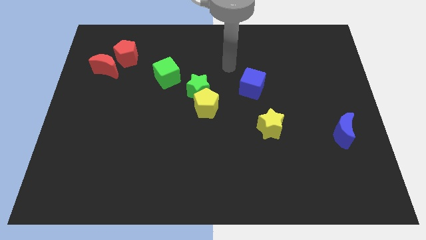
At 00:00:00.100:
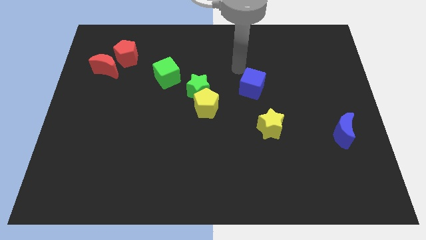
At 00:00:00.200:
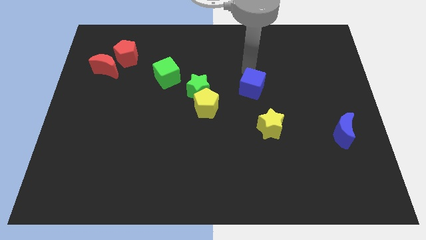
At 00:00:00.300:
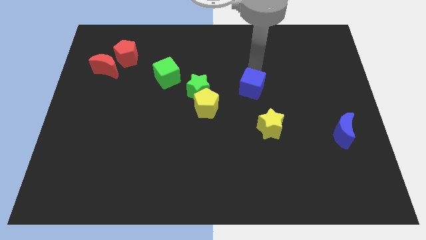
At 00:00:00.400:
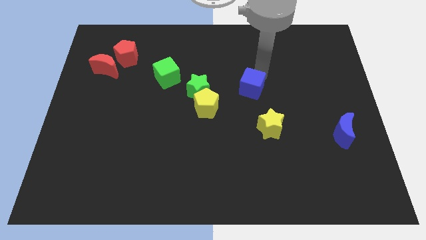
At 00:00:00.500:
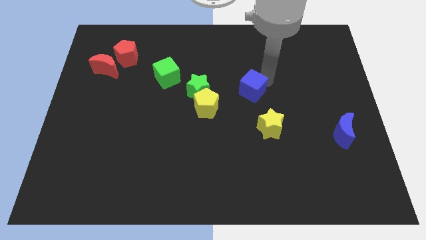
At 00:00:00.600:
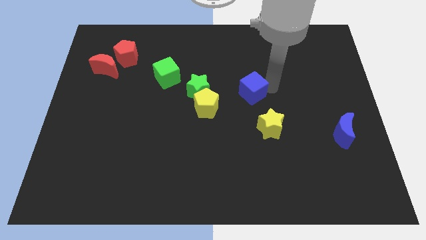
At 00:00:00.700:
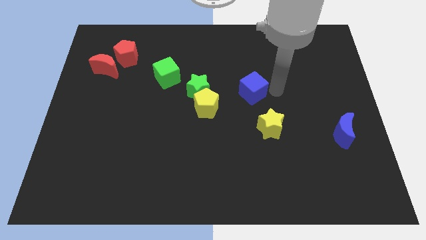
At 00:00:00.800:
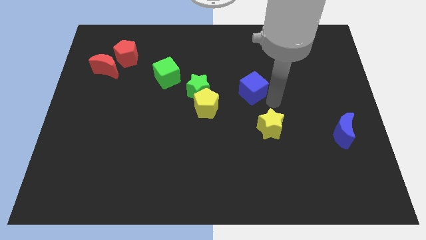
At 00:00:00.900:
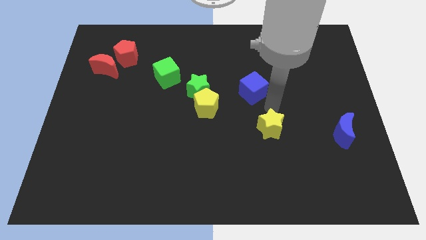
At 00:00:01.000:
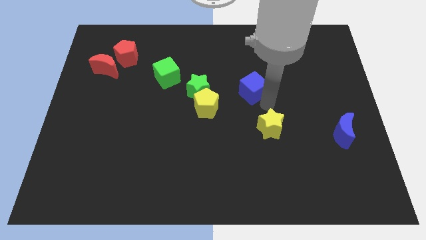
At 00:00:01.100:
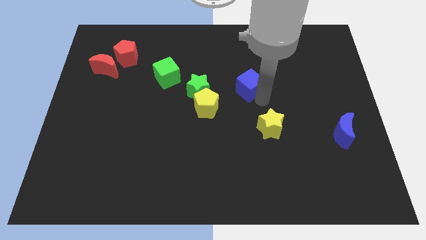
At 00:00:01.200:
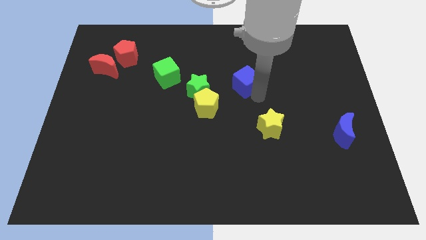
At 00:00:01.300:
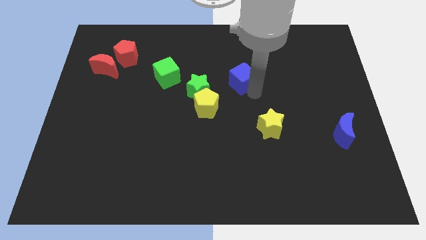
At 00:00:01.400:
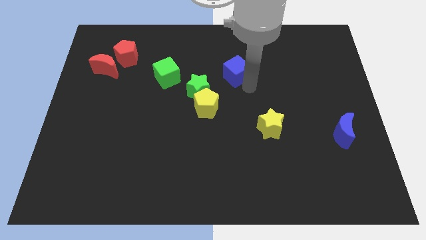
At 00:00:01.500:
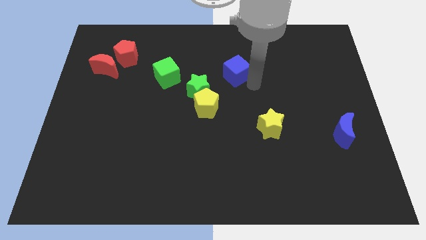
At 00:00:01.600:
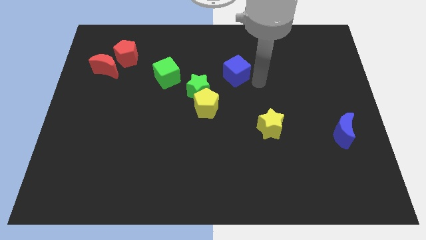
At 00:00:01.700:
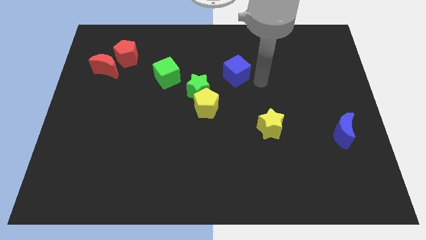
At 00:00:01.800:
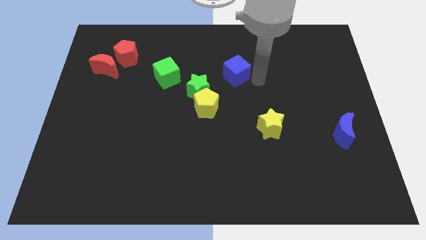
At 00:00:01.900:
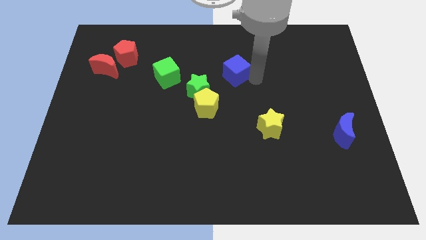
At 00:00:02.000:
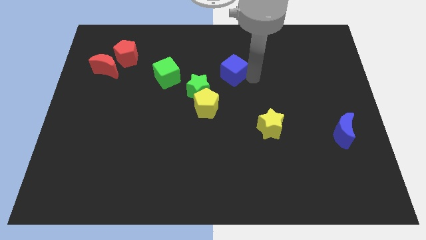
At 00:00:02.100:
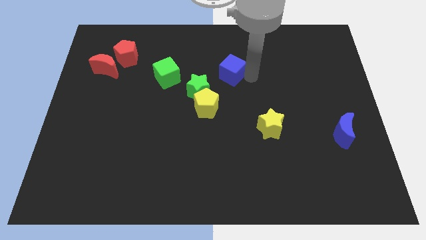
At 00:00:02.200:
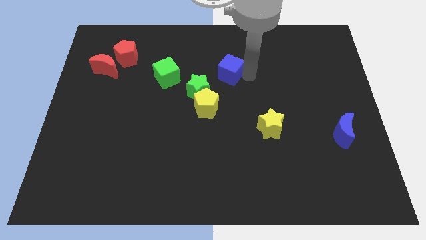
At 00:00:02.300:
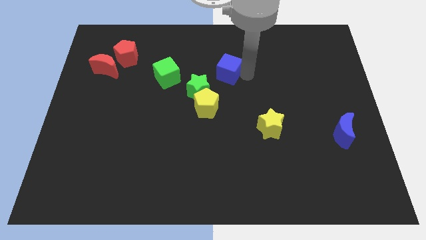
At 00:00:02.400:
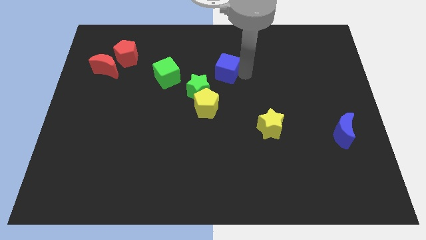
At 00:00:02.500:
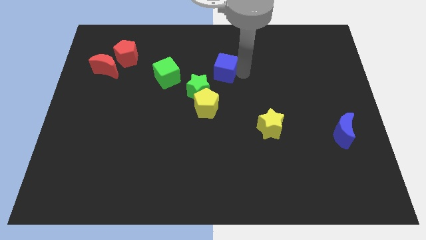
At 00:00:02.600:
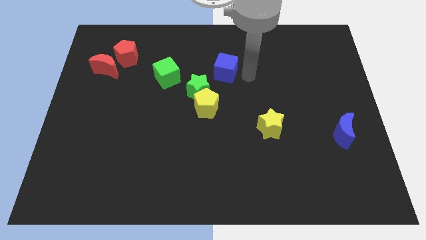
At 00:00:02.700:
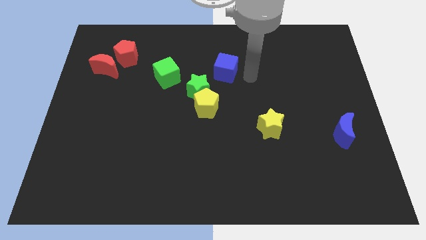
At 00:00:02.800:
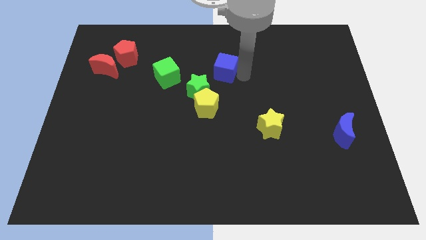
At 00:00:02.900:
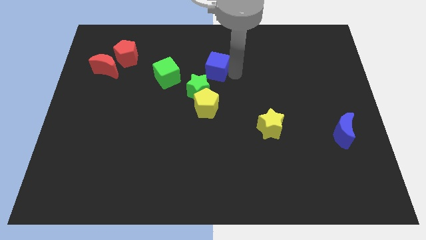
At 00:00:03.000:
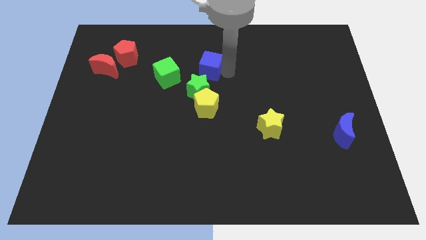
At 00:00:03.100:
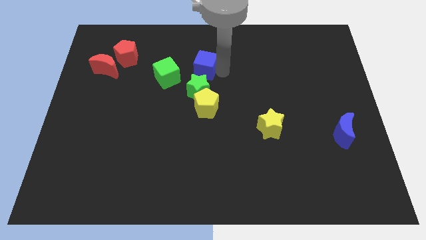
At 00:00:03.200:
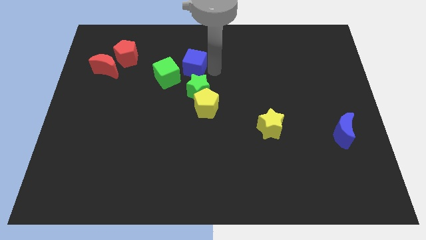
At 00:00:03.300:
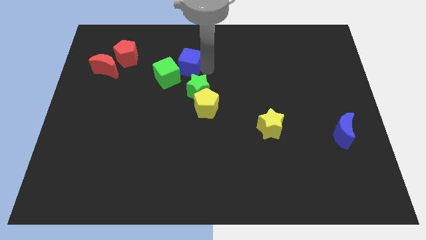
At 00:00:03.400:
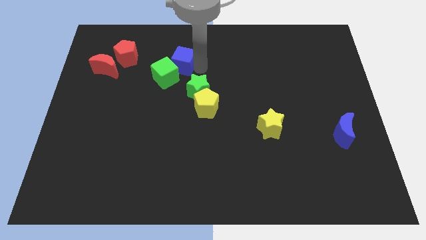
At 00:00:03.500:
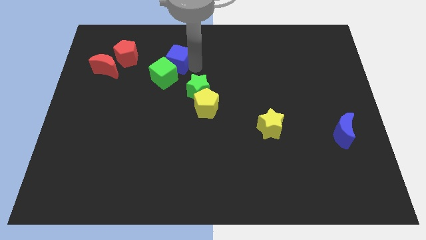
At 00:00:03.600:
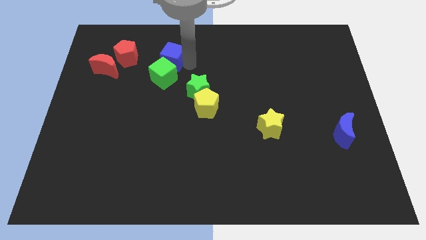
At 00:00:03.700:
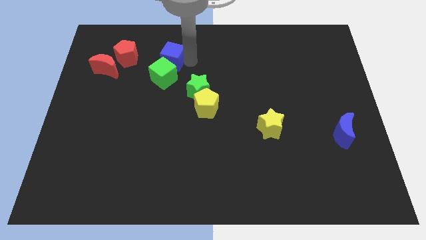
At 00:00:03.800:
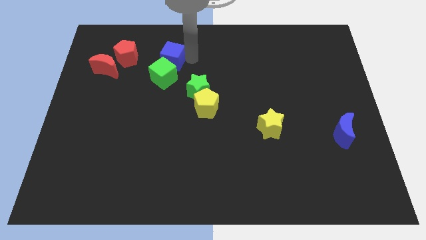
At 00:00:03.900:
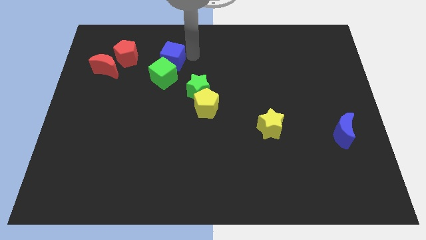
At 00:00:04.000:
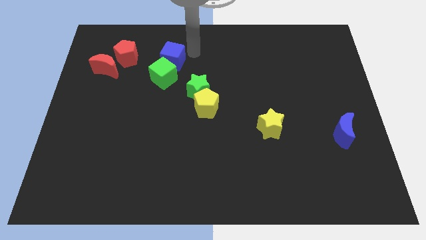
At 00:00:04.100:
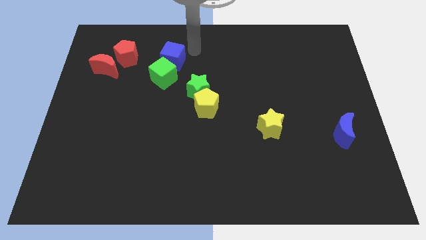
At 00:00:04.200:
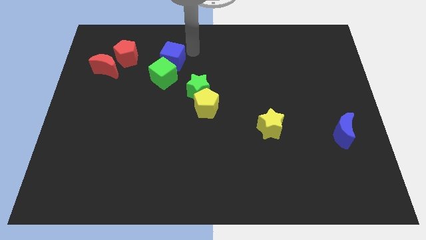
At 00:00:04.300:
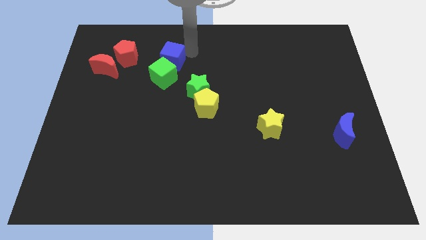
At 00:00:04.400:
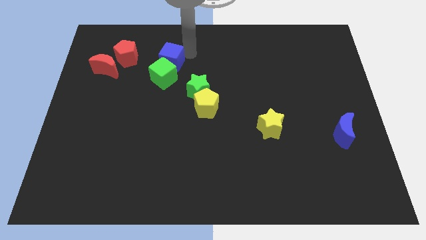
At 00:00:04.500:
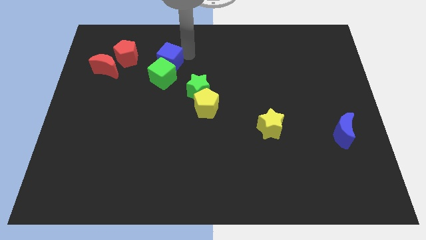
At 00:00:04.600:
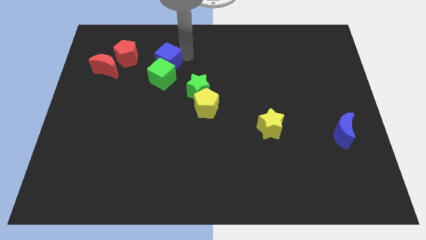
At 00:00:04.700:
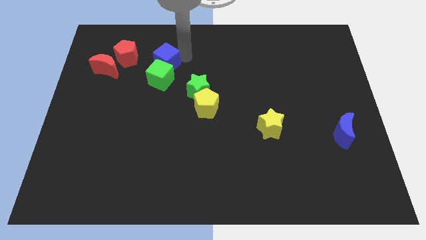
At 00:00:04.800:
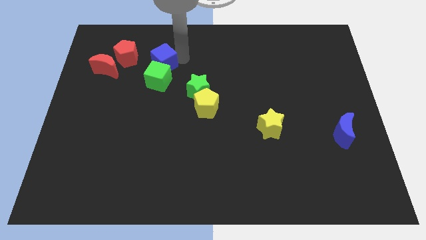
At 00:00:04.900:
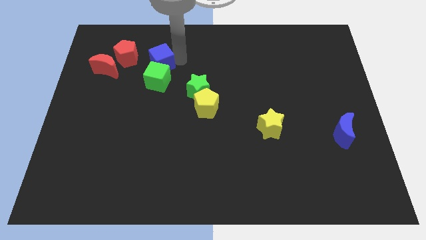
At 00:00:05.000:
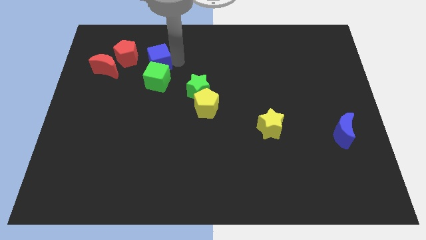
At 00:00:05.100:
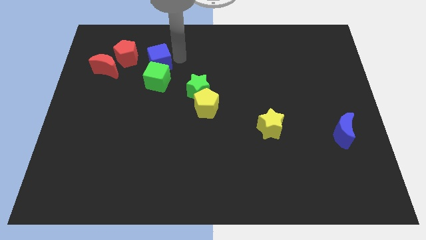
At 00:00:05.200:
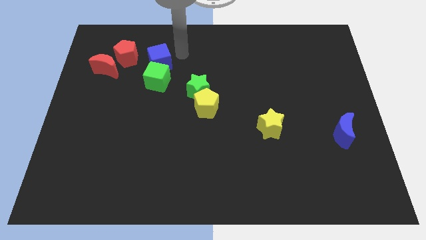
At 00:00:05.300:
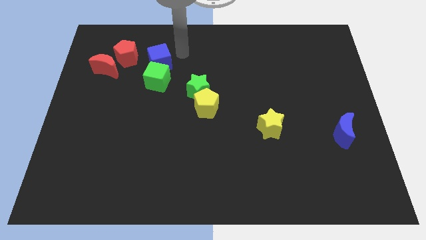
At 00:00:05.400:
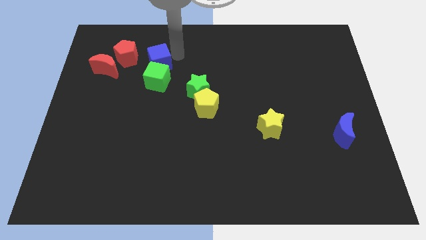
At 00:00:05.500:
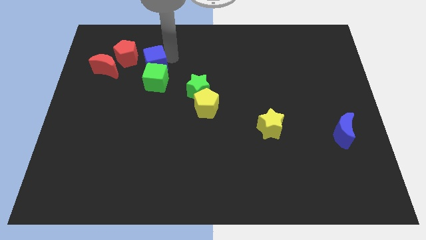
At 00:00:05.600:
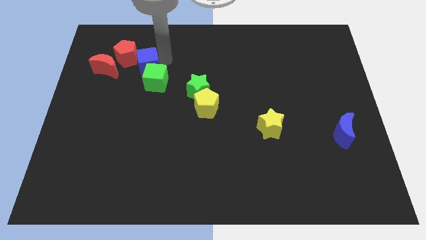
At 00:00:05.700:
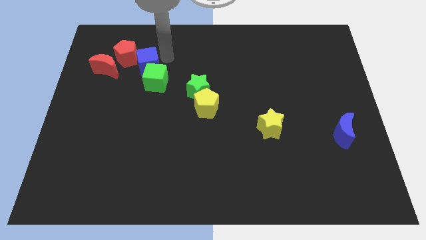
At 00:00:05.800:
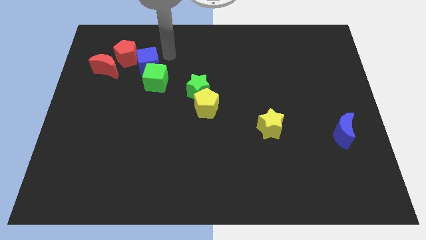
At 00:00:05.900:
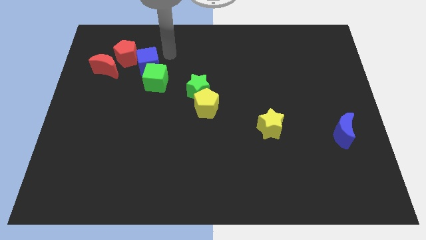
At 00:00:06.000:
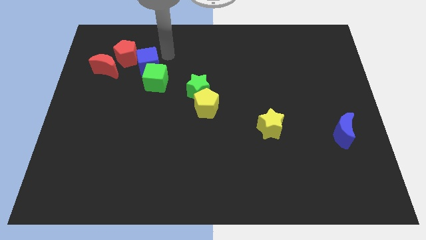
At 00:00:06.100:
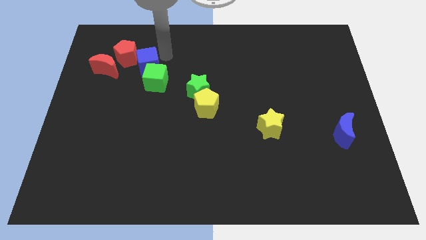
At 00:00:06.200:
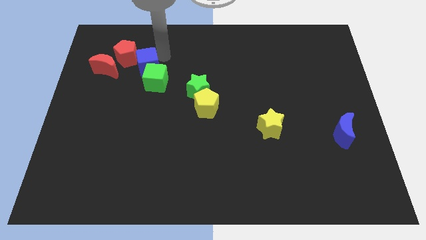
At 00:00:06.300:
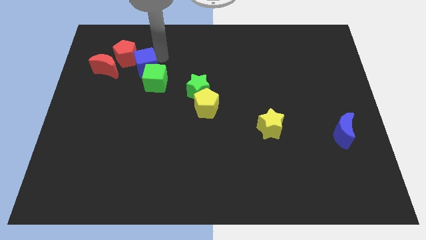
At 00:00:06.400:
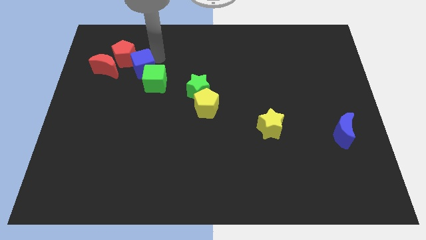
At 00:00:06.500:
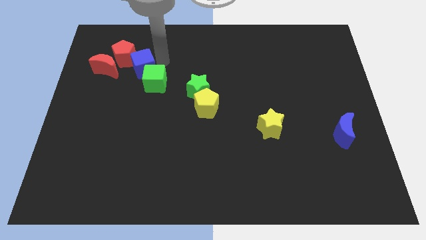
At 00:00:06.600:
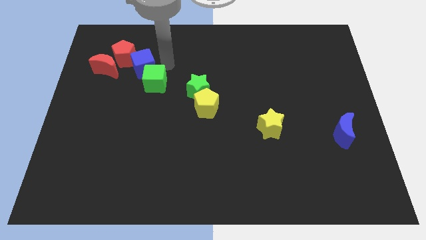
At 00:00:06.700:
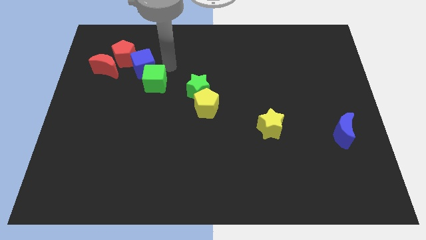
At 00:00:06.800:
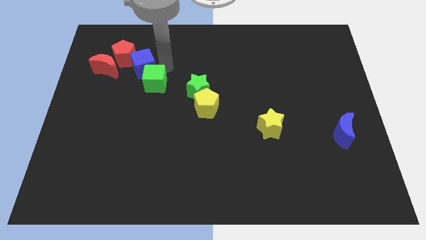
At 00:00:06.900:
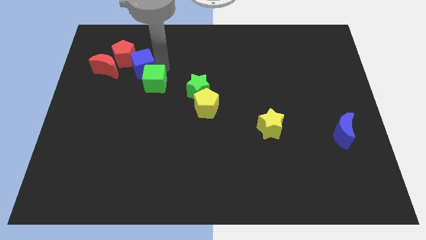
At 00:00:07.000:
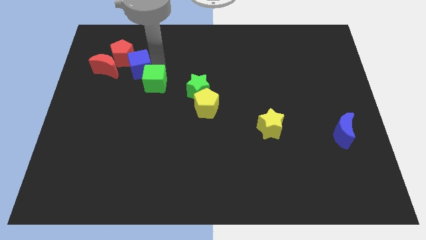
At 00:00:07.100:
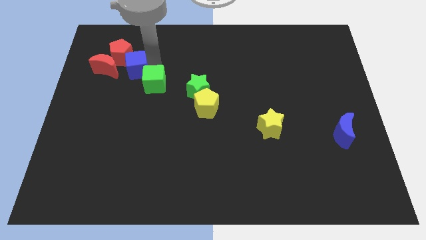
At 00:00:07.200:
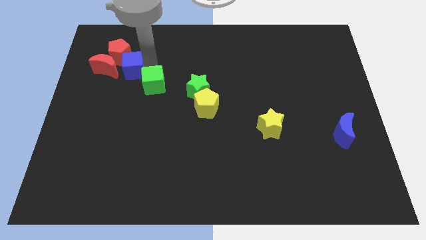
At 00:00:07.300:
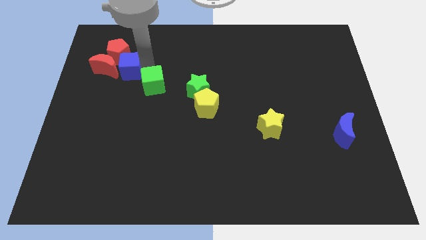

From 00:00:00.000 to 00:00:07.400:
move the blue cube towards the red moon

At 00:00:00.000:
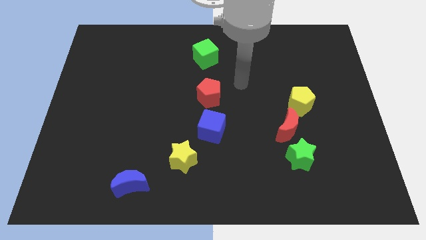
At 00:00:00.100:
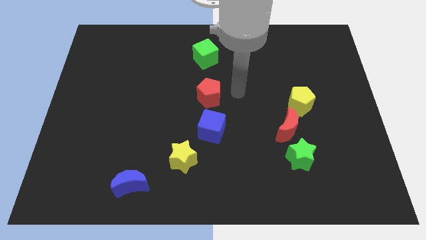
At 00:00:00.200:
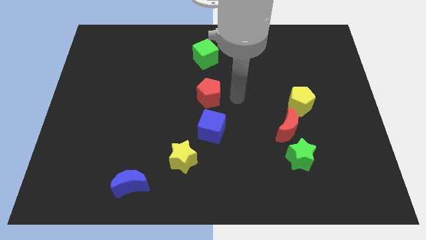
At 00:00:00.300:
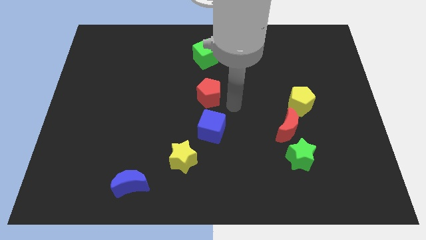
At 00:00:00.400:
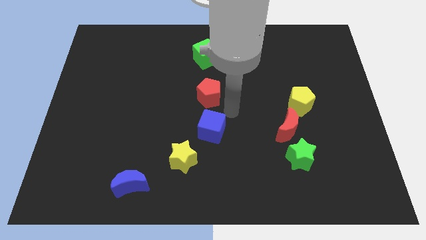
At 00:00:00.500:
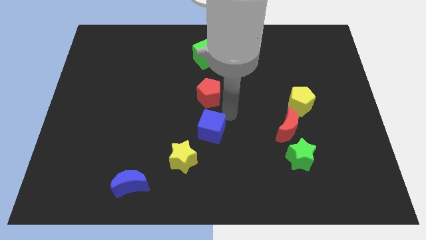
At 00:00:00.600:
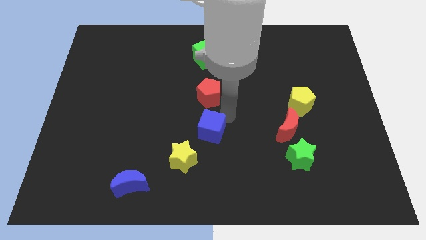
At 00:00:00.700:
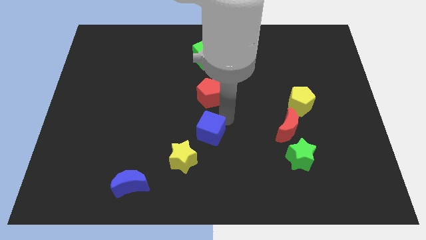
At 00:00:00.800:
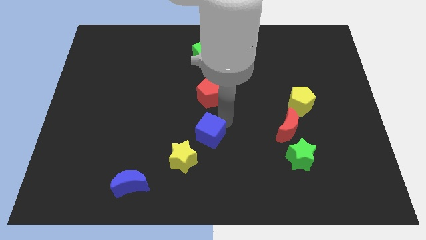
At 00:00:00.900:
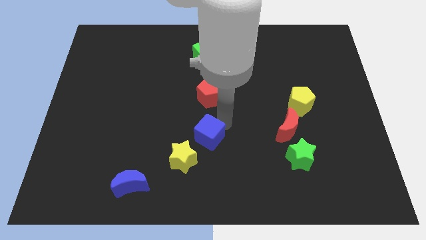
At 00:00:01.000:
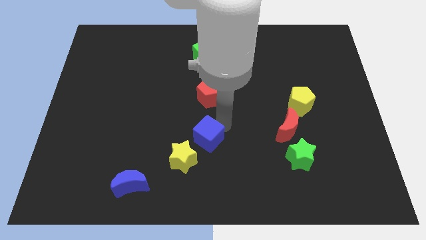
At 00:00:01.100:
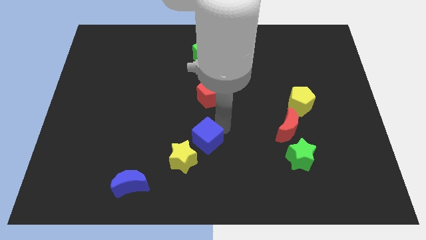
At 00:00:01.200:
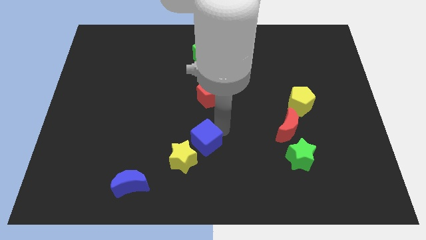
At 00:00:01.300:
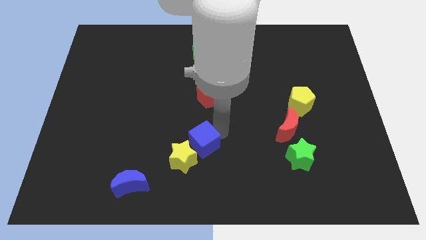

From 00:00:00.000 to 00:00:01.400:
push the blue cube towards the yellow star
